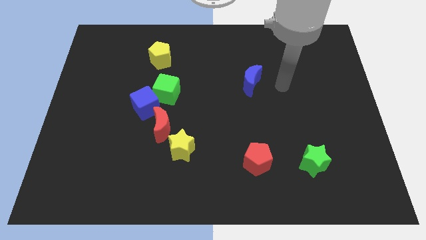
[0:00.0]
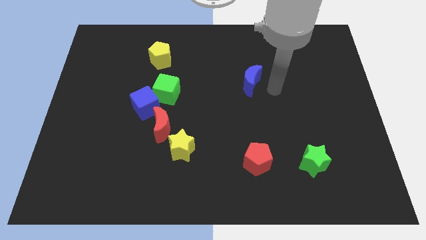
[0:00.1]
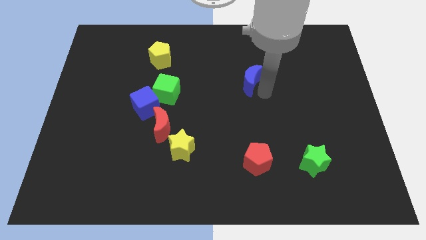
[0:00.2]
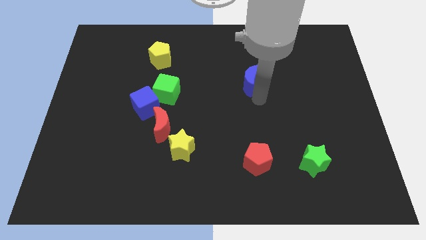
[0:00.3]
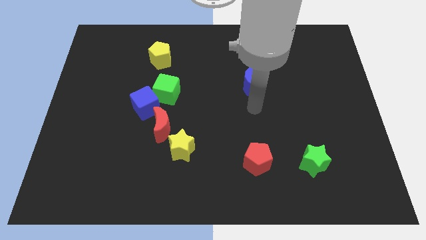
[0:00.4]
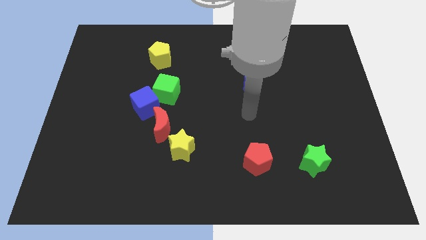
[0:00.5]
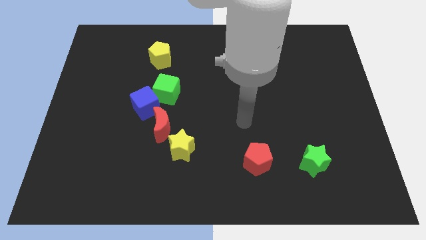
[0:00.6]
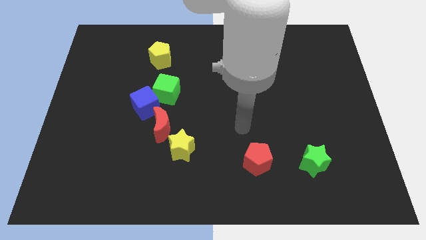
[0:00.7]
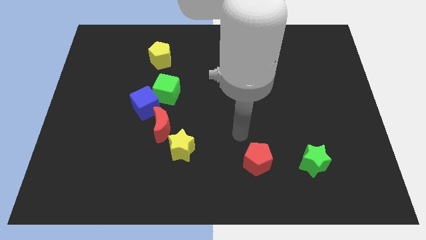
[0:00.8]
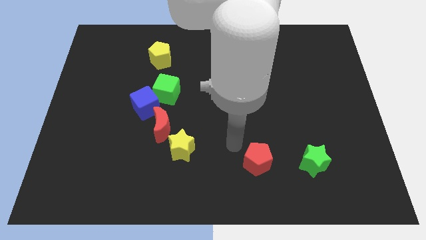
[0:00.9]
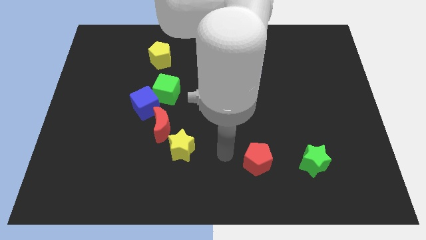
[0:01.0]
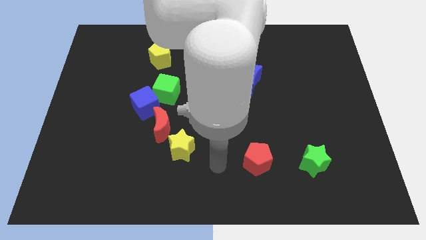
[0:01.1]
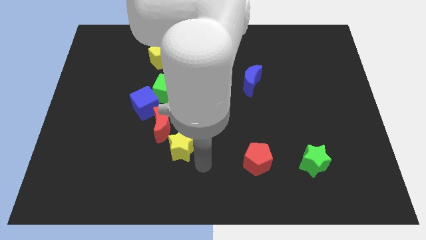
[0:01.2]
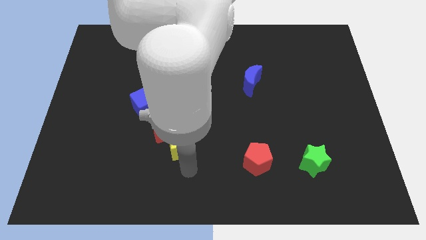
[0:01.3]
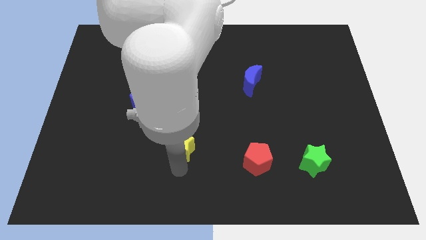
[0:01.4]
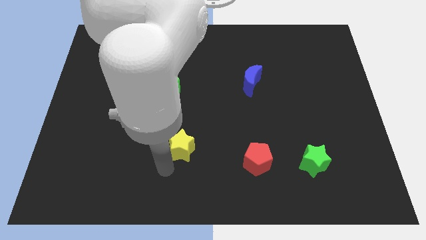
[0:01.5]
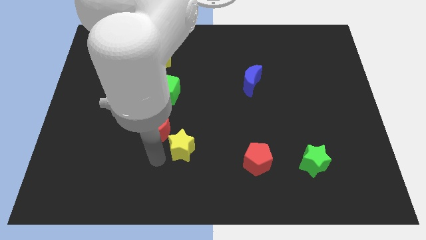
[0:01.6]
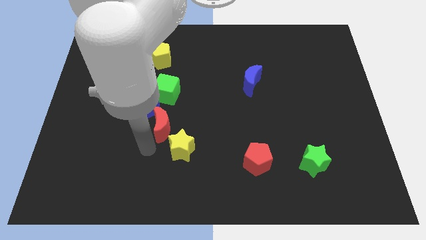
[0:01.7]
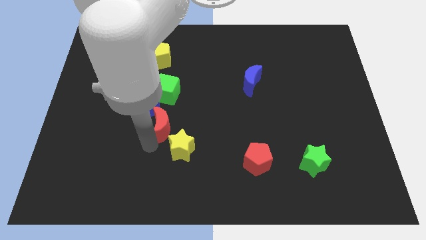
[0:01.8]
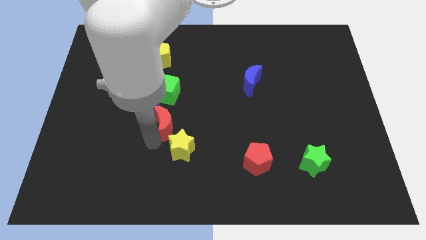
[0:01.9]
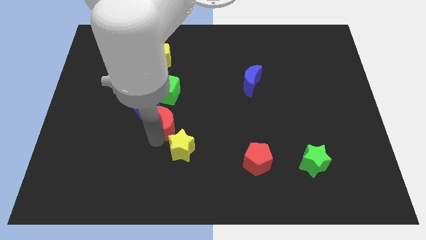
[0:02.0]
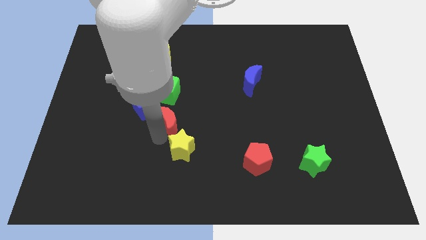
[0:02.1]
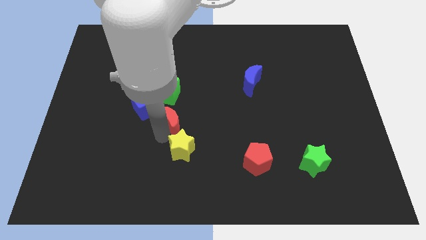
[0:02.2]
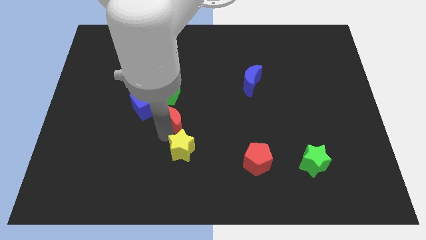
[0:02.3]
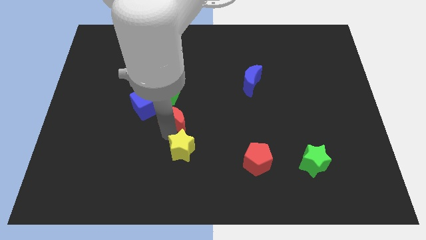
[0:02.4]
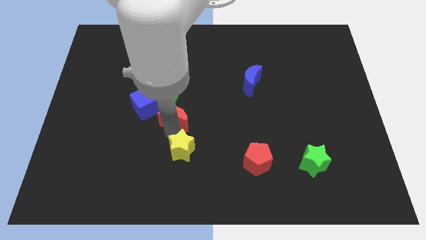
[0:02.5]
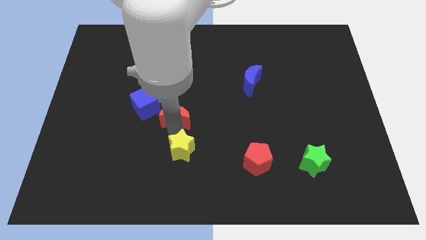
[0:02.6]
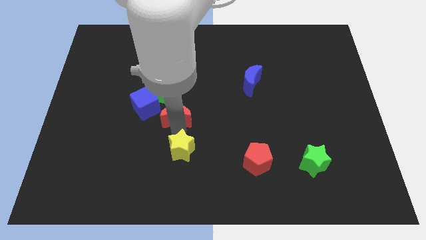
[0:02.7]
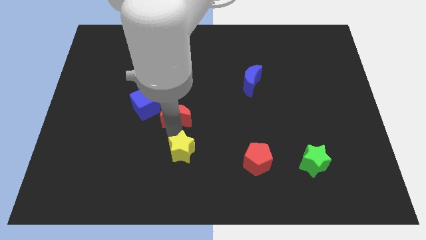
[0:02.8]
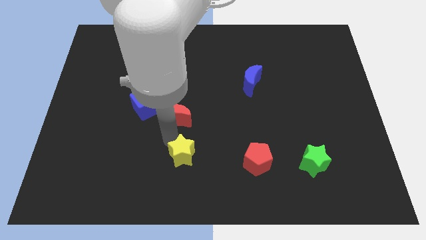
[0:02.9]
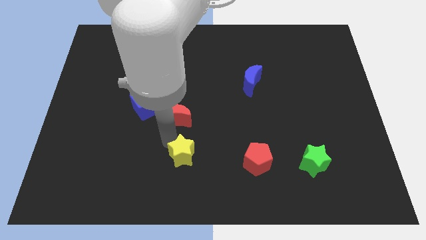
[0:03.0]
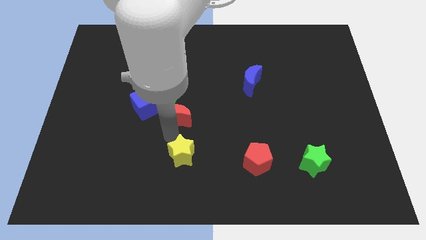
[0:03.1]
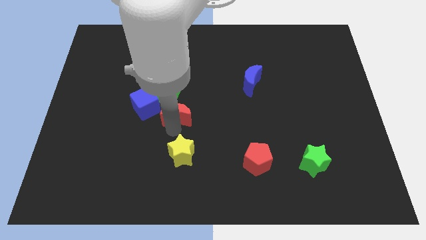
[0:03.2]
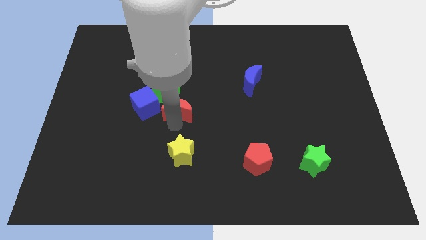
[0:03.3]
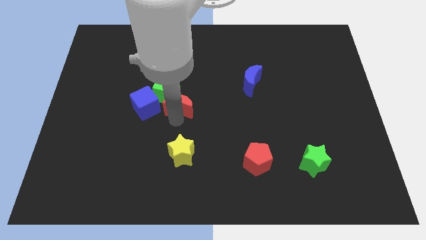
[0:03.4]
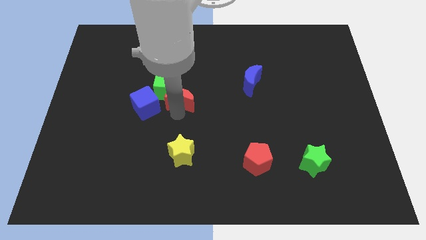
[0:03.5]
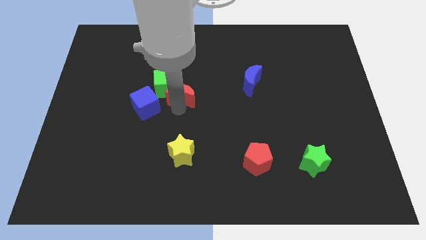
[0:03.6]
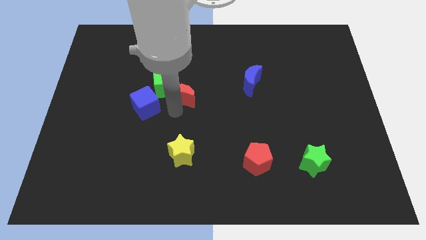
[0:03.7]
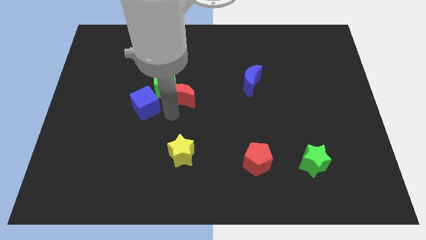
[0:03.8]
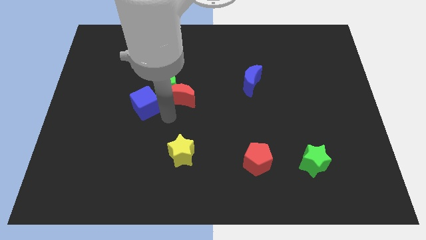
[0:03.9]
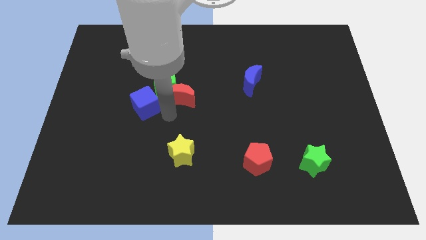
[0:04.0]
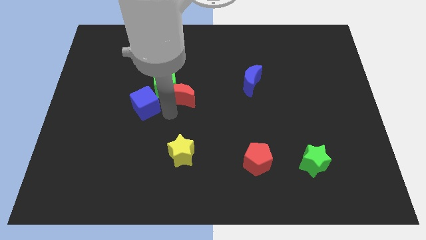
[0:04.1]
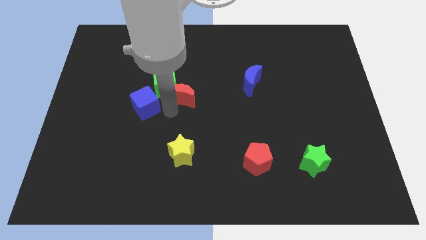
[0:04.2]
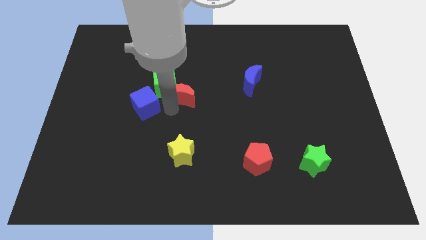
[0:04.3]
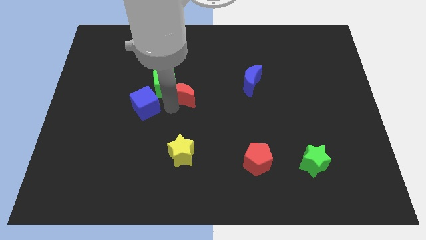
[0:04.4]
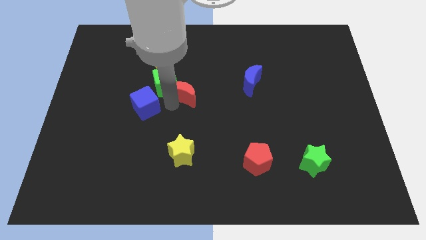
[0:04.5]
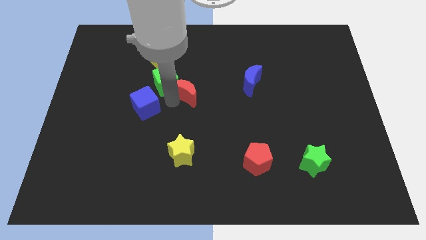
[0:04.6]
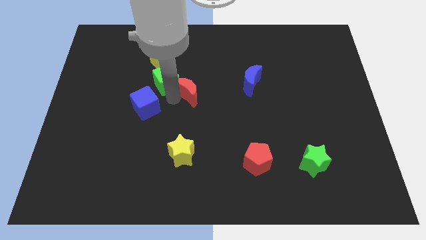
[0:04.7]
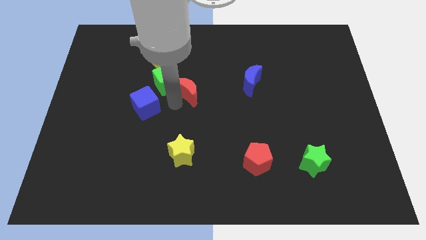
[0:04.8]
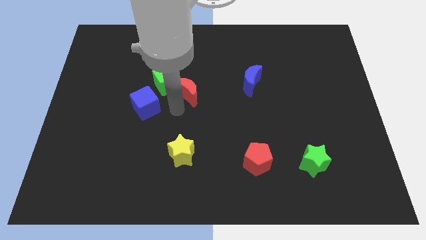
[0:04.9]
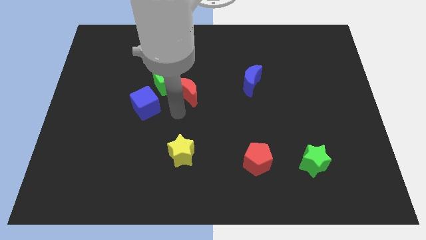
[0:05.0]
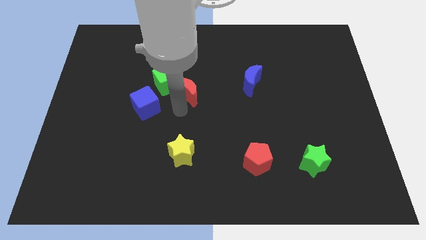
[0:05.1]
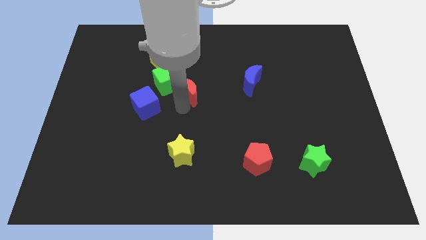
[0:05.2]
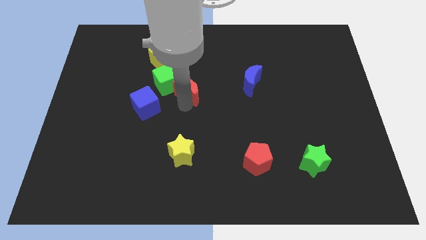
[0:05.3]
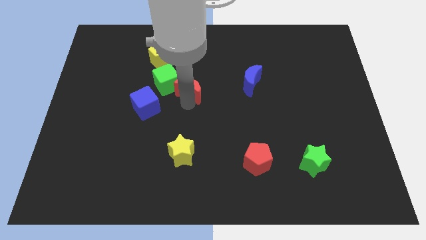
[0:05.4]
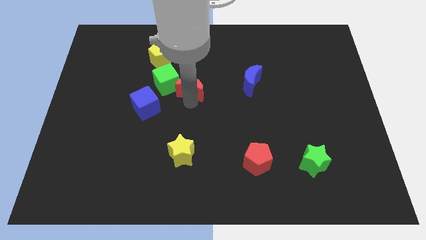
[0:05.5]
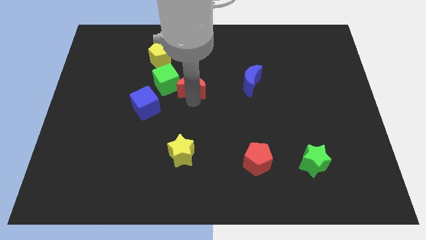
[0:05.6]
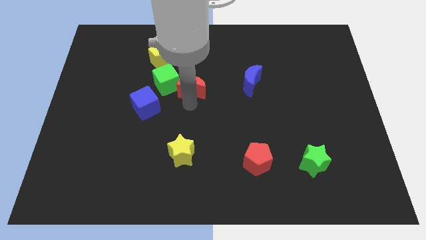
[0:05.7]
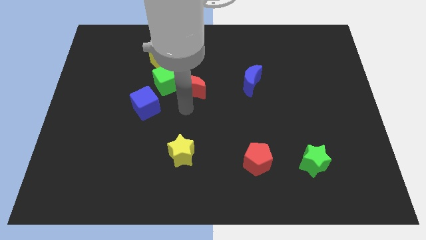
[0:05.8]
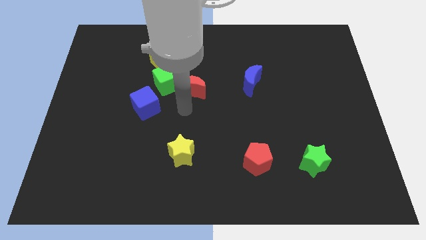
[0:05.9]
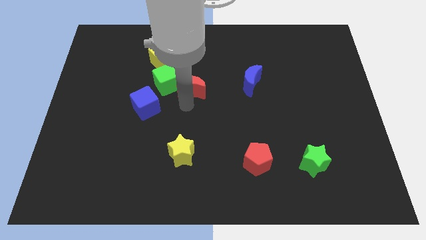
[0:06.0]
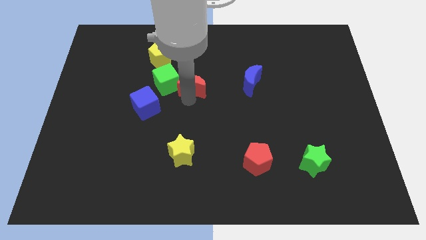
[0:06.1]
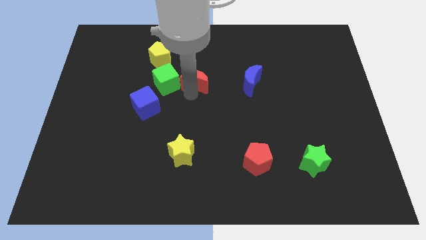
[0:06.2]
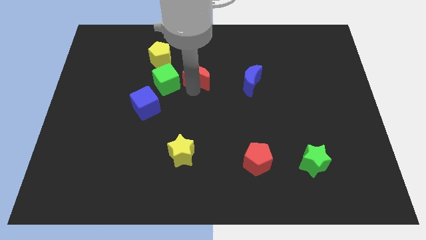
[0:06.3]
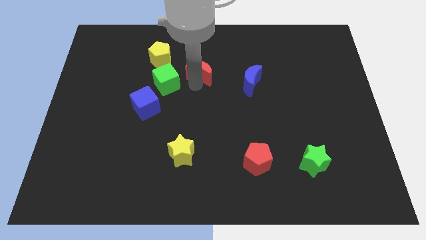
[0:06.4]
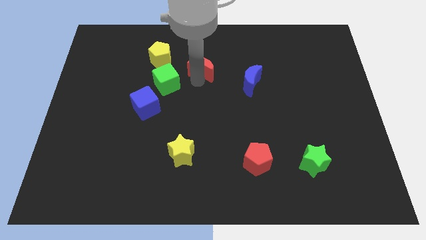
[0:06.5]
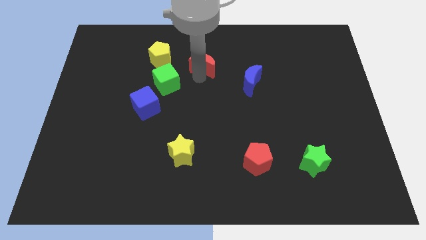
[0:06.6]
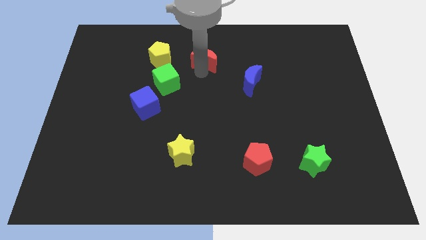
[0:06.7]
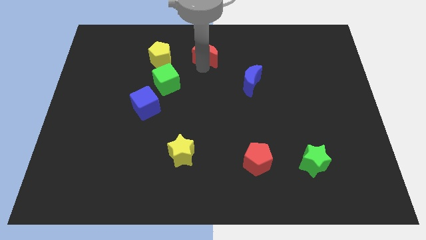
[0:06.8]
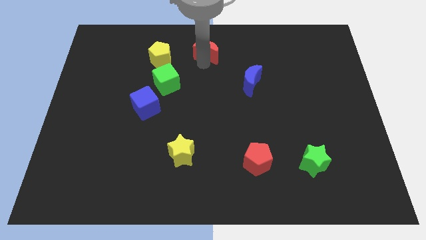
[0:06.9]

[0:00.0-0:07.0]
move the red moon to the top

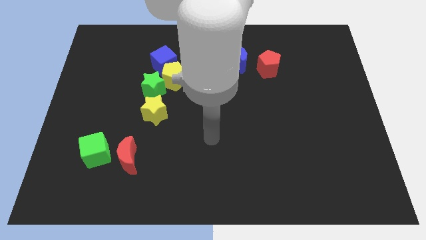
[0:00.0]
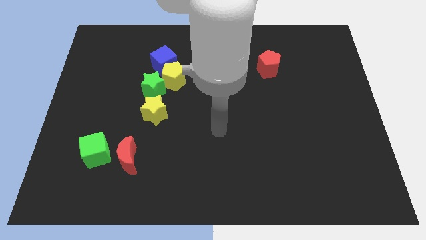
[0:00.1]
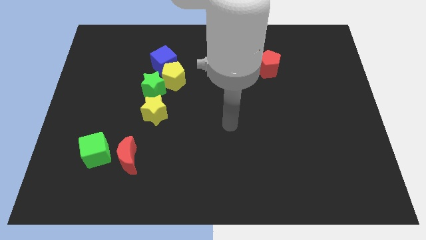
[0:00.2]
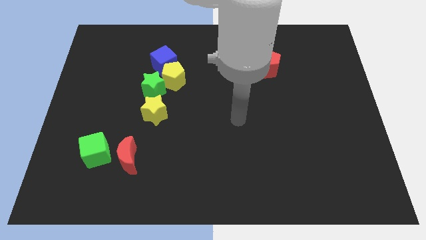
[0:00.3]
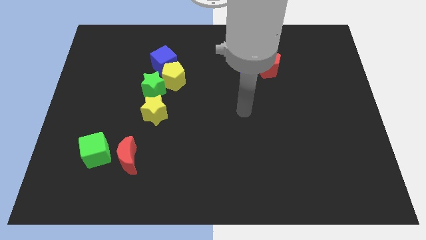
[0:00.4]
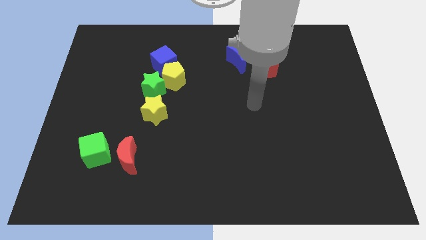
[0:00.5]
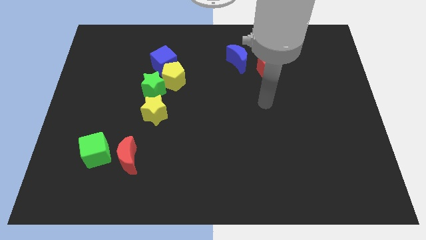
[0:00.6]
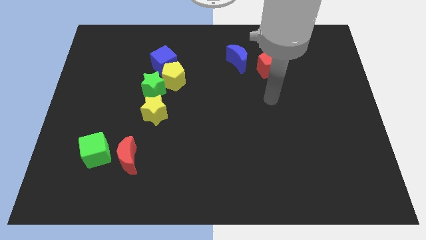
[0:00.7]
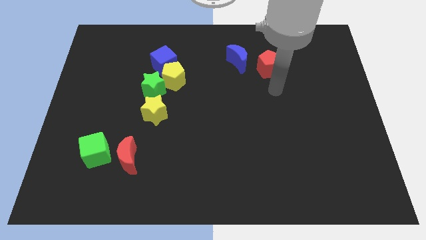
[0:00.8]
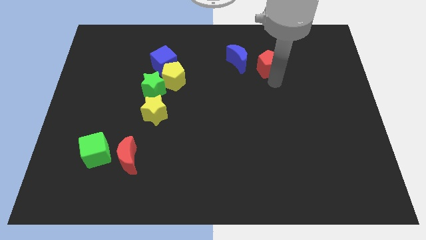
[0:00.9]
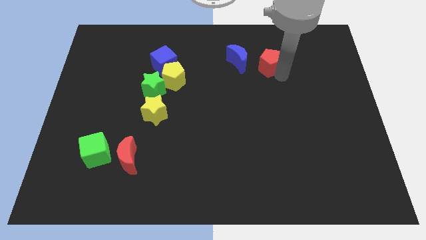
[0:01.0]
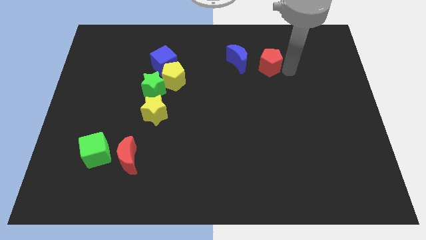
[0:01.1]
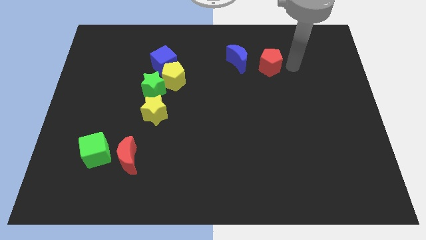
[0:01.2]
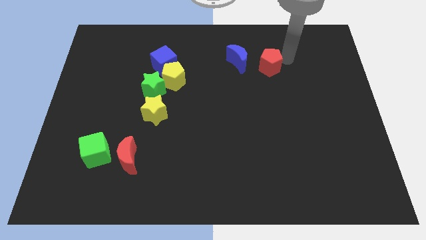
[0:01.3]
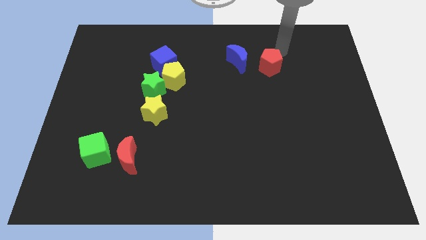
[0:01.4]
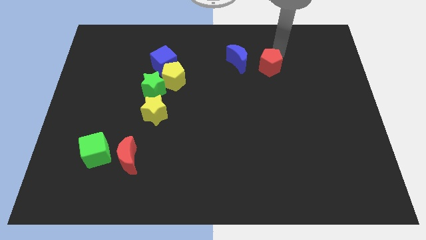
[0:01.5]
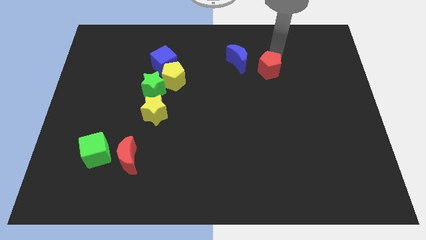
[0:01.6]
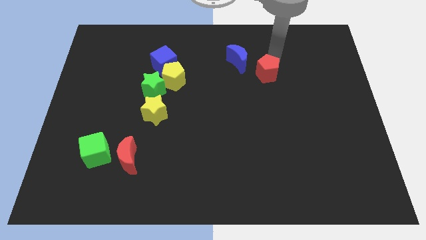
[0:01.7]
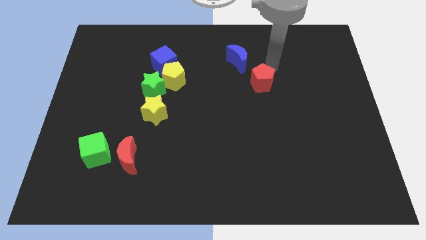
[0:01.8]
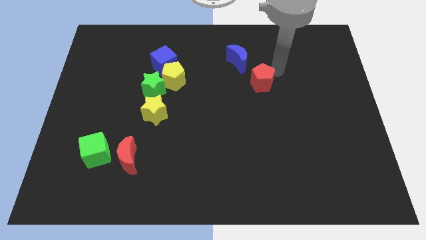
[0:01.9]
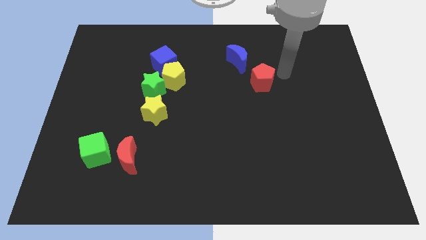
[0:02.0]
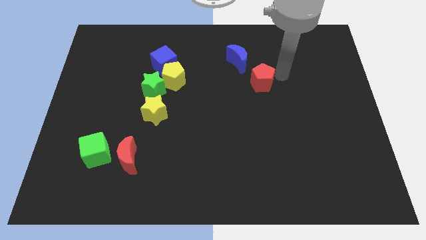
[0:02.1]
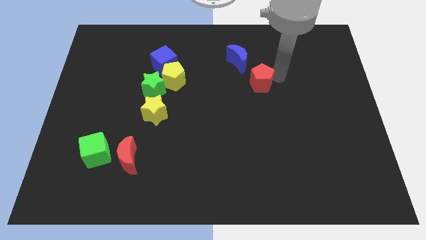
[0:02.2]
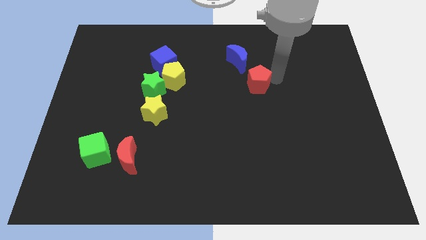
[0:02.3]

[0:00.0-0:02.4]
put the red pentagon to the middle
